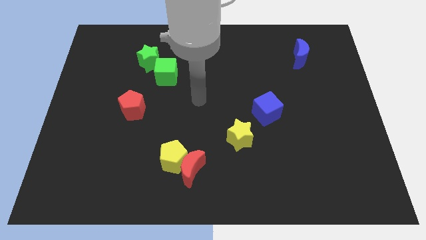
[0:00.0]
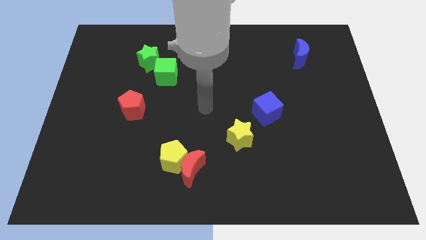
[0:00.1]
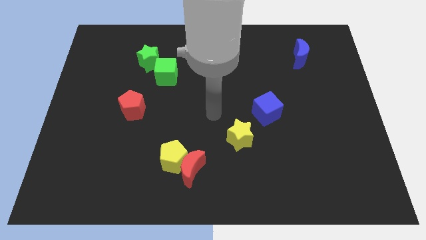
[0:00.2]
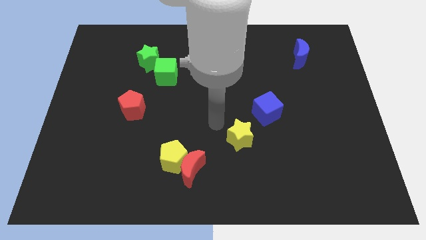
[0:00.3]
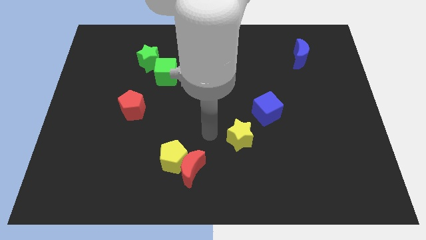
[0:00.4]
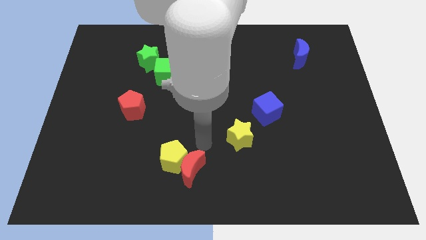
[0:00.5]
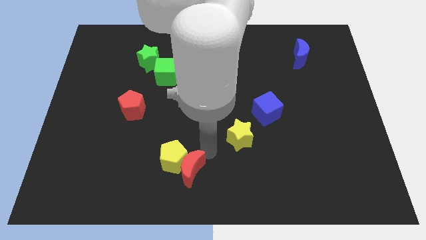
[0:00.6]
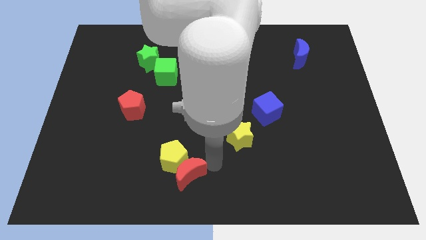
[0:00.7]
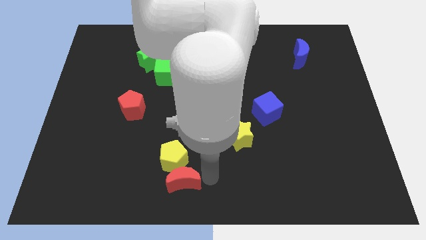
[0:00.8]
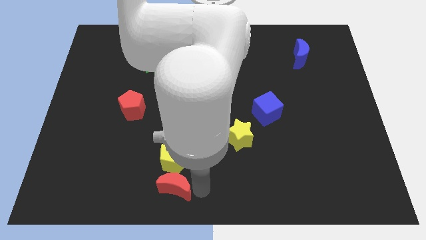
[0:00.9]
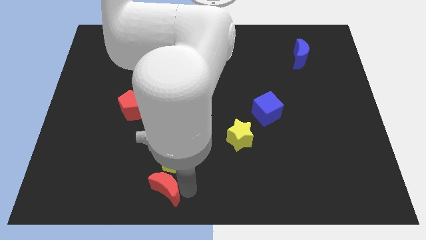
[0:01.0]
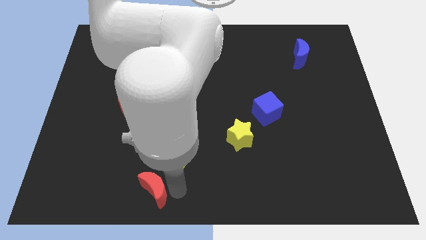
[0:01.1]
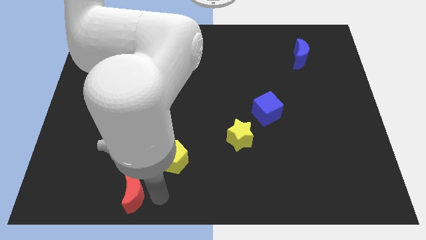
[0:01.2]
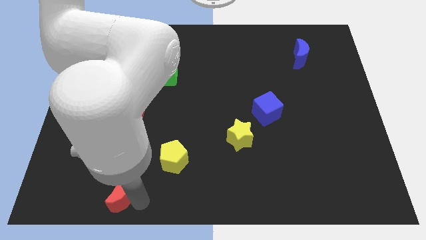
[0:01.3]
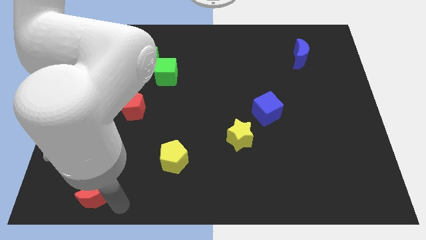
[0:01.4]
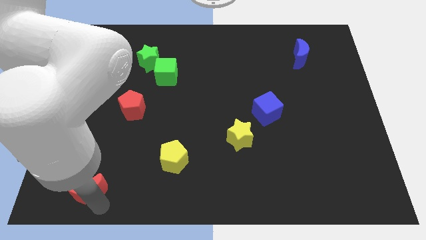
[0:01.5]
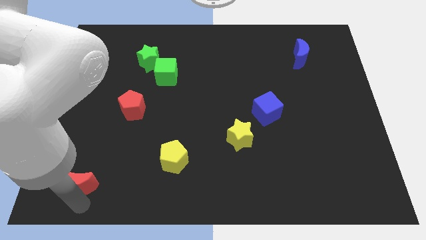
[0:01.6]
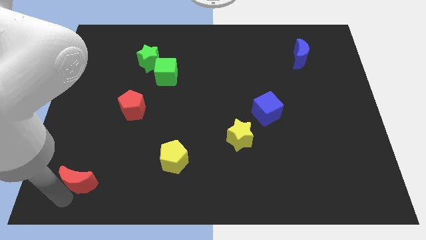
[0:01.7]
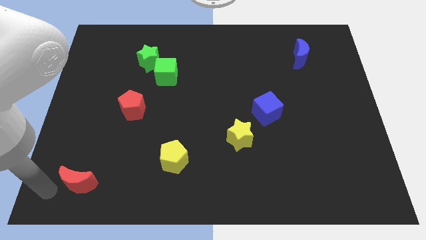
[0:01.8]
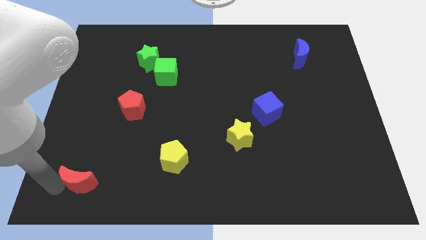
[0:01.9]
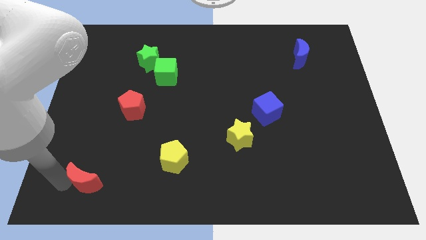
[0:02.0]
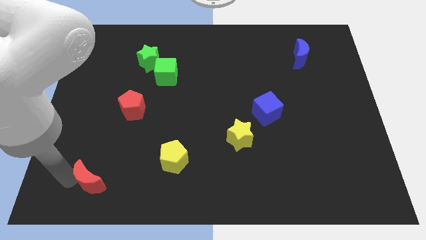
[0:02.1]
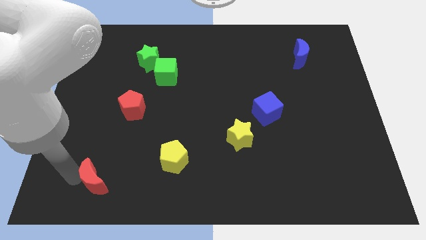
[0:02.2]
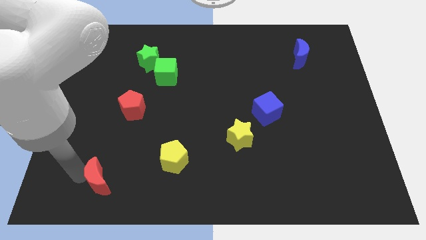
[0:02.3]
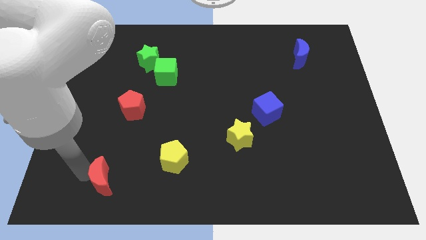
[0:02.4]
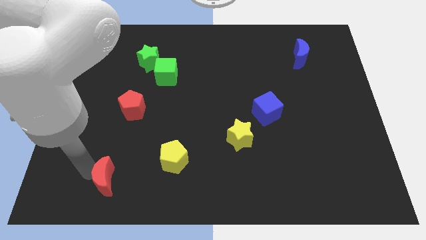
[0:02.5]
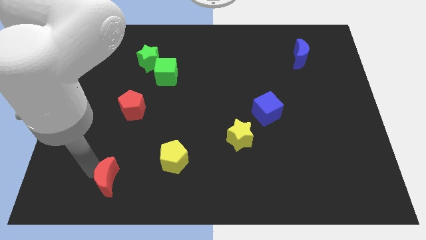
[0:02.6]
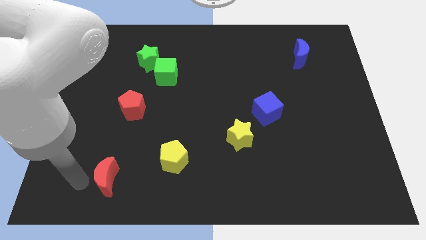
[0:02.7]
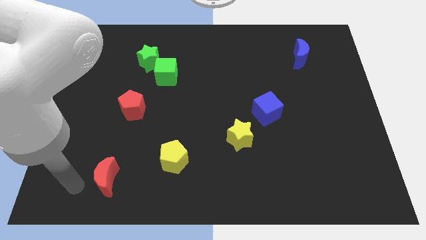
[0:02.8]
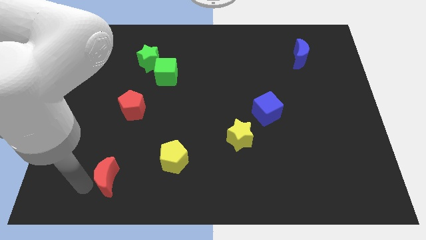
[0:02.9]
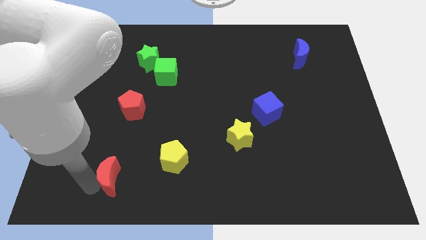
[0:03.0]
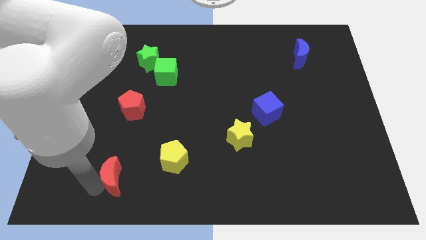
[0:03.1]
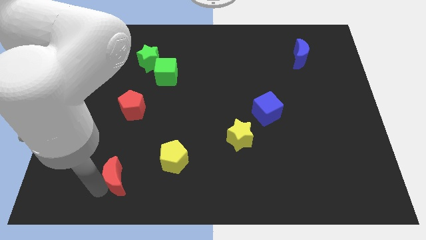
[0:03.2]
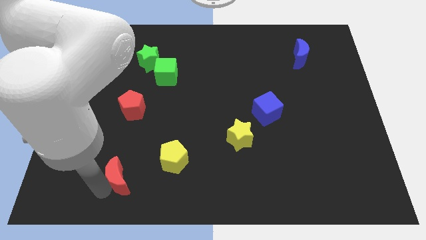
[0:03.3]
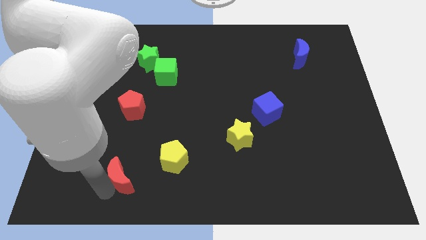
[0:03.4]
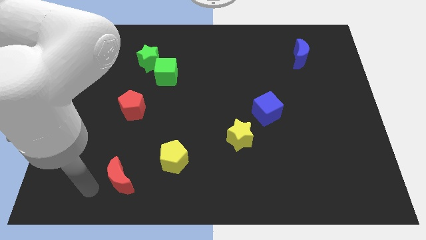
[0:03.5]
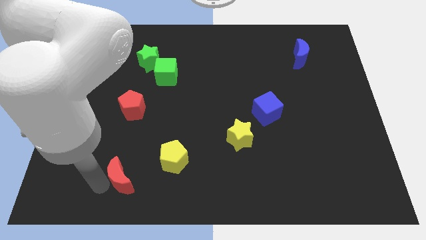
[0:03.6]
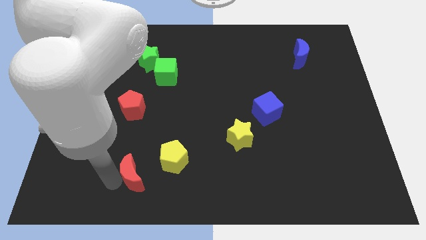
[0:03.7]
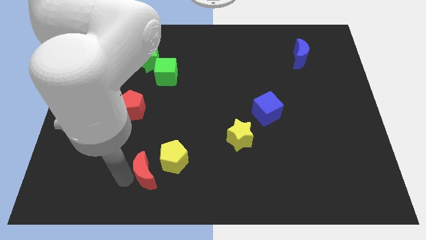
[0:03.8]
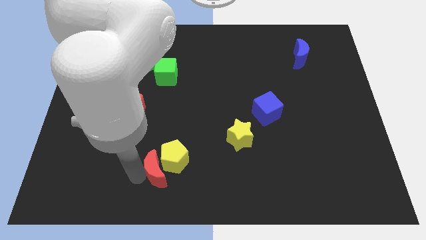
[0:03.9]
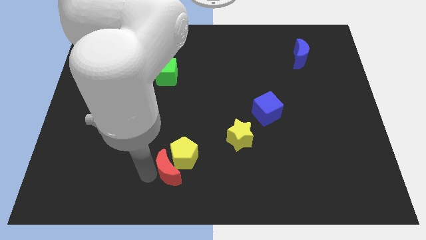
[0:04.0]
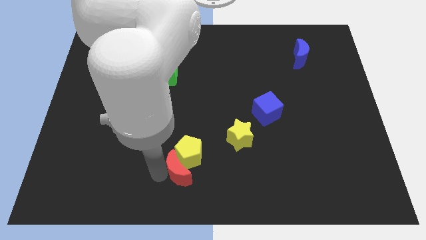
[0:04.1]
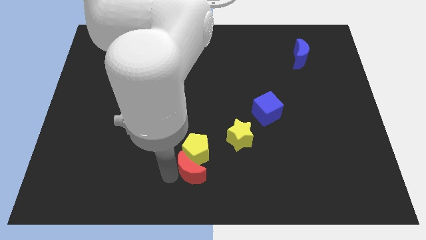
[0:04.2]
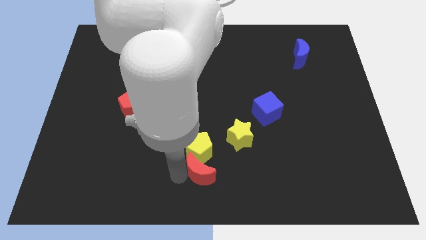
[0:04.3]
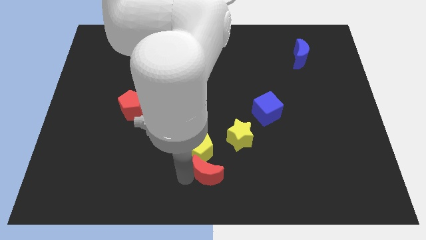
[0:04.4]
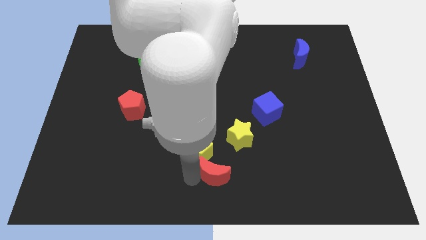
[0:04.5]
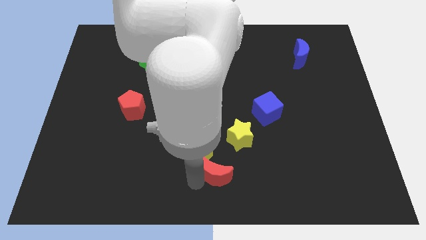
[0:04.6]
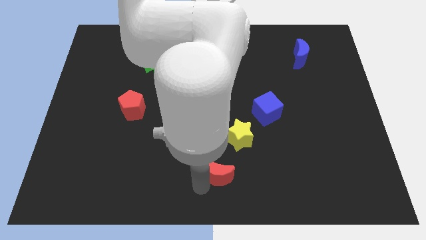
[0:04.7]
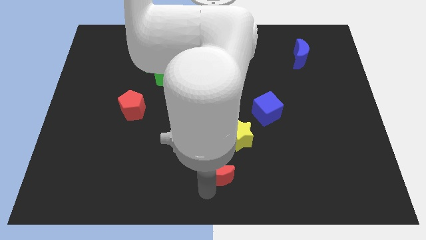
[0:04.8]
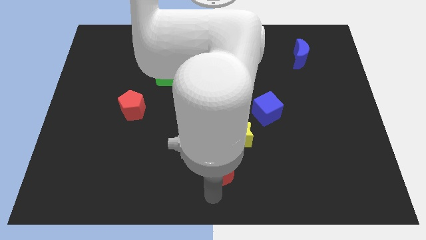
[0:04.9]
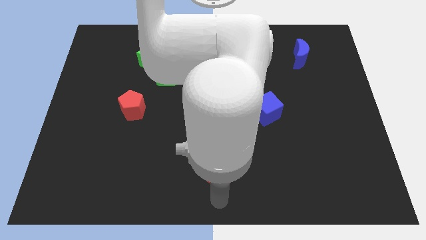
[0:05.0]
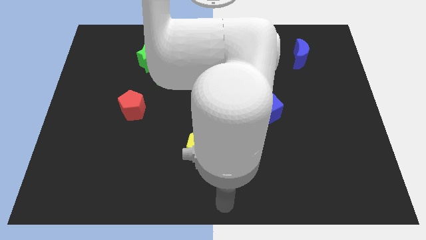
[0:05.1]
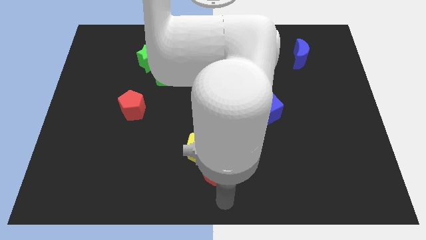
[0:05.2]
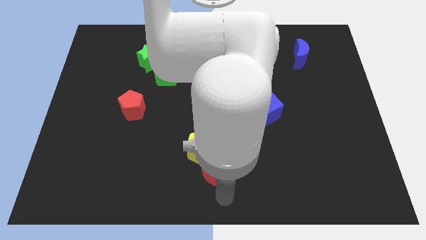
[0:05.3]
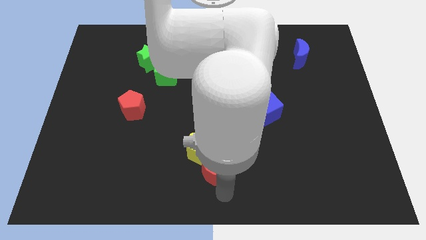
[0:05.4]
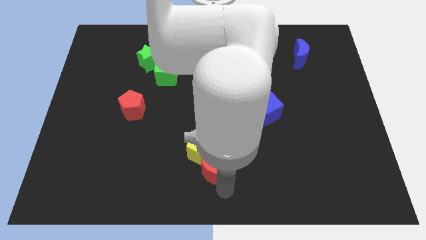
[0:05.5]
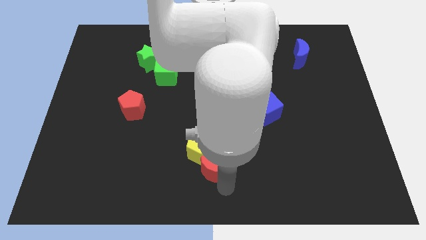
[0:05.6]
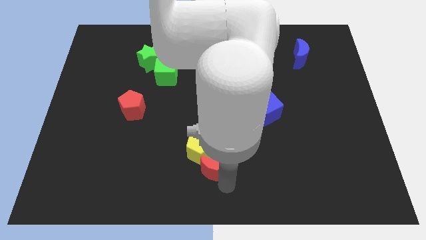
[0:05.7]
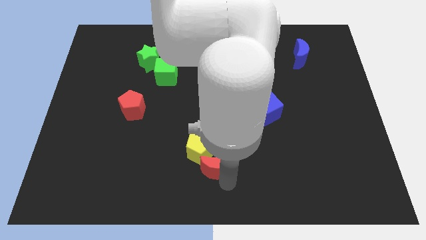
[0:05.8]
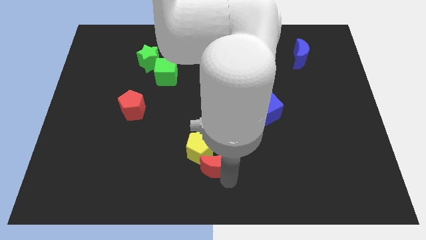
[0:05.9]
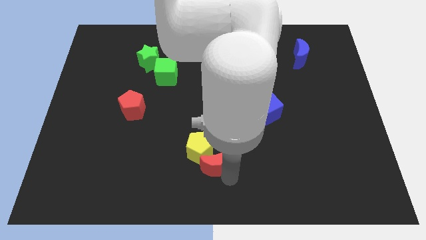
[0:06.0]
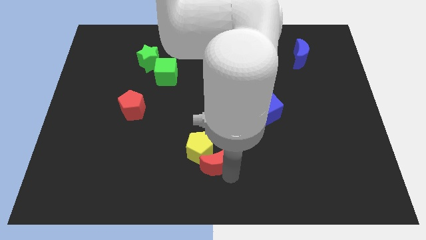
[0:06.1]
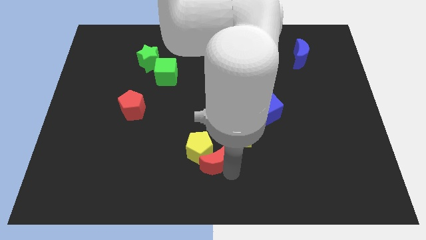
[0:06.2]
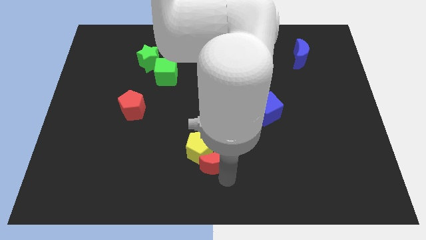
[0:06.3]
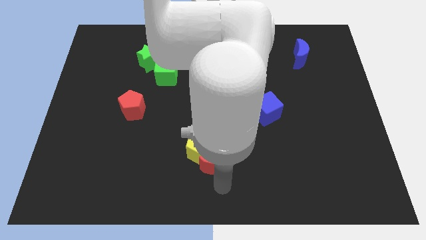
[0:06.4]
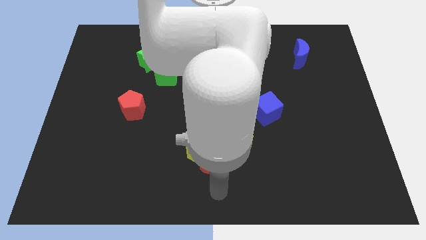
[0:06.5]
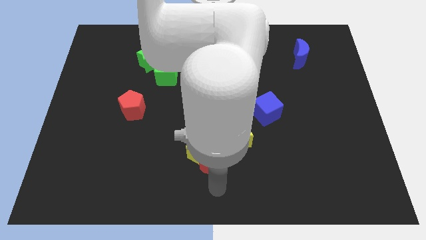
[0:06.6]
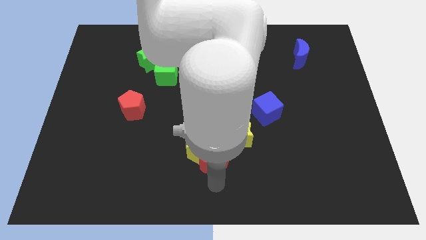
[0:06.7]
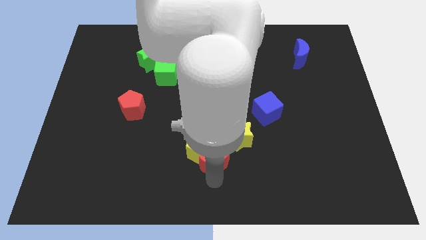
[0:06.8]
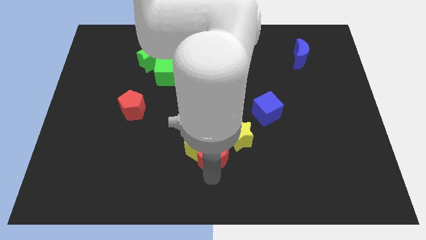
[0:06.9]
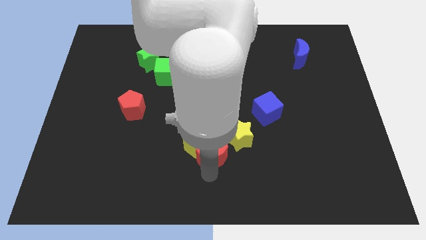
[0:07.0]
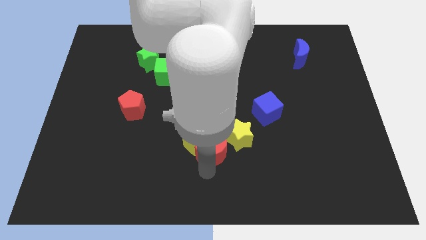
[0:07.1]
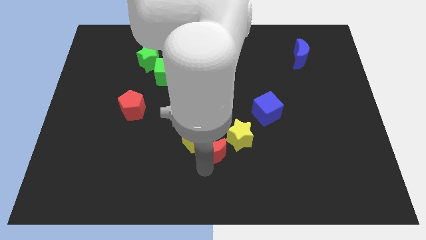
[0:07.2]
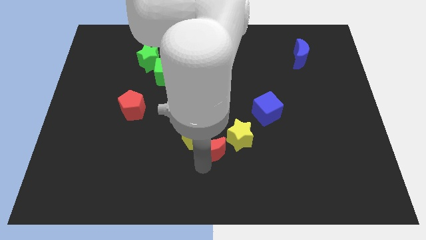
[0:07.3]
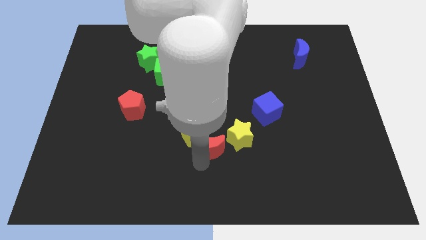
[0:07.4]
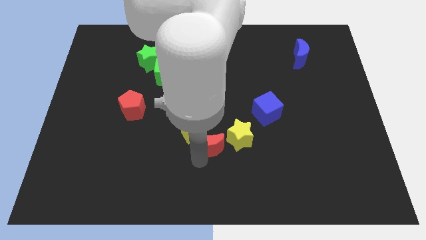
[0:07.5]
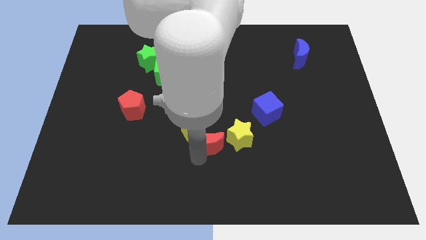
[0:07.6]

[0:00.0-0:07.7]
push the red moon to the center
